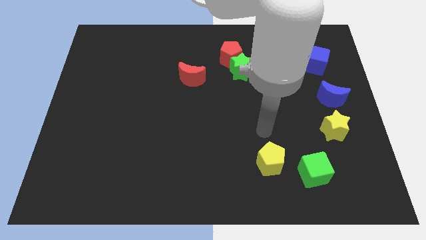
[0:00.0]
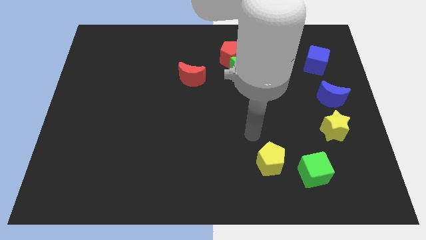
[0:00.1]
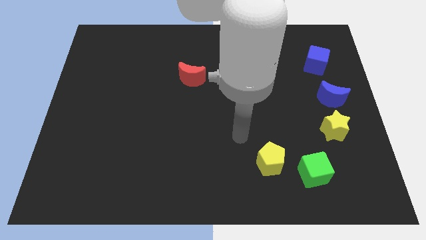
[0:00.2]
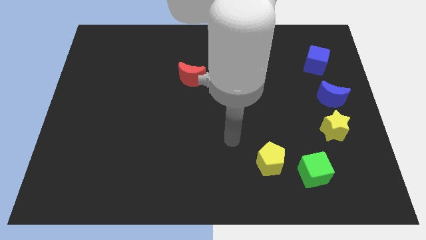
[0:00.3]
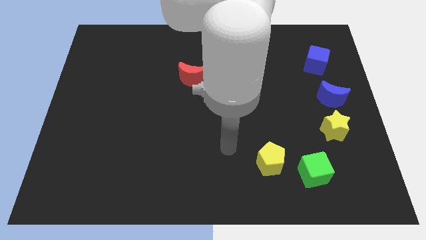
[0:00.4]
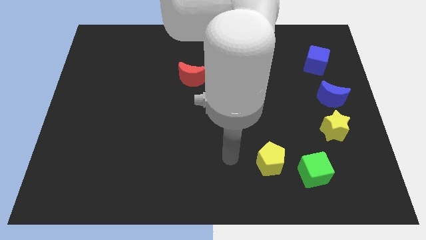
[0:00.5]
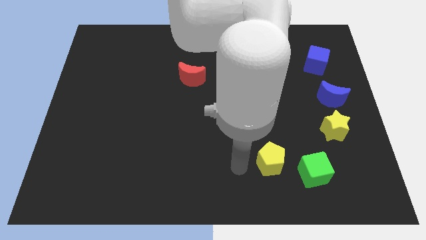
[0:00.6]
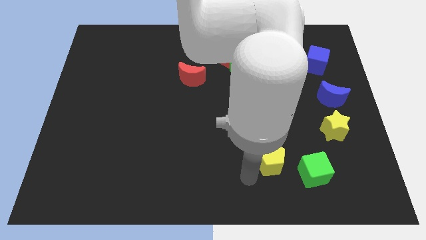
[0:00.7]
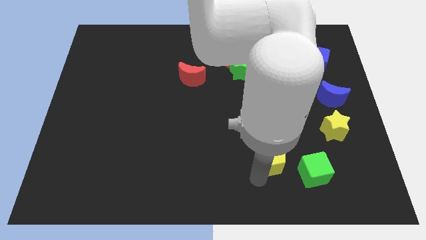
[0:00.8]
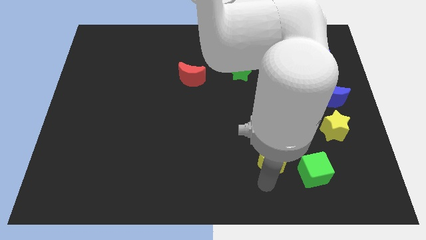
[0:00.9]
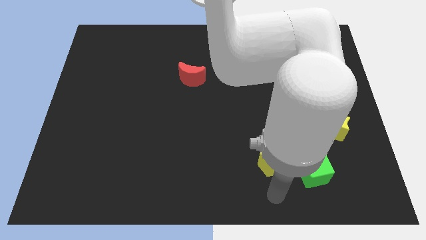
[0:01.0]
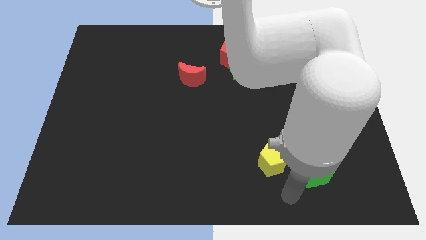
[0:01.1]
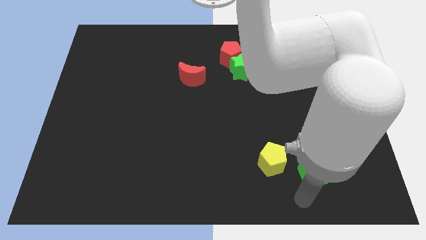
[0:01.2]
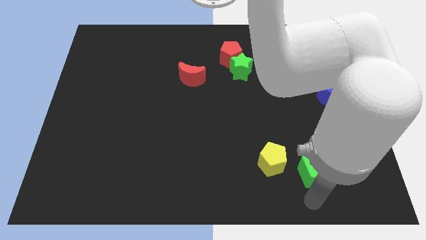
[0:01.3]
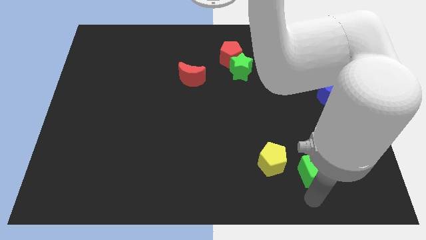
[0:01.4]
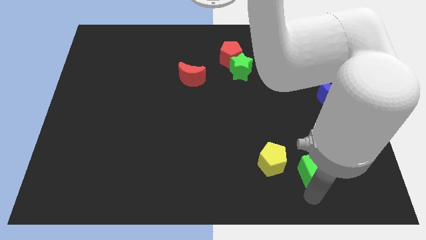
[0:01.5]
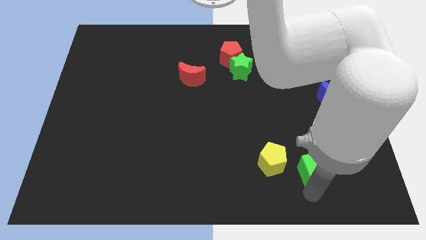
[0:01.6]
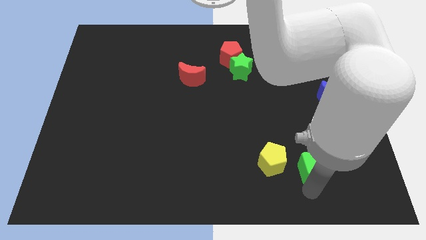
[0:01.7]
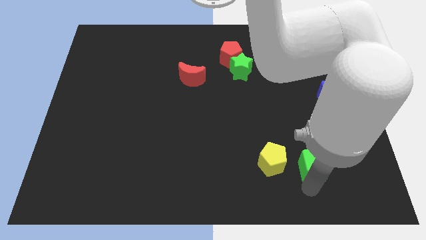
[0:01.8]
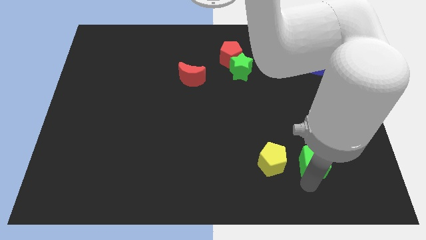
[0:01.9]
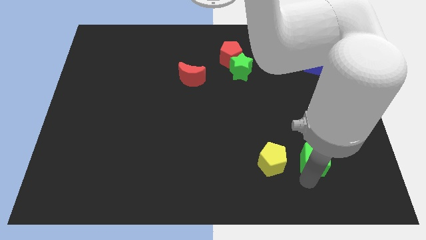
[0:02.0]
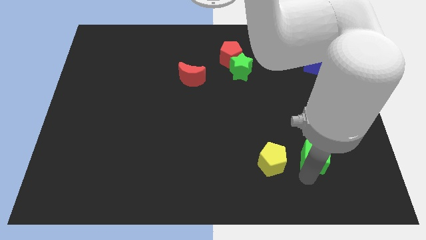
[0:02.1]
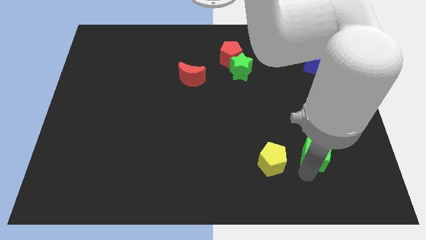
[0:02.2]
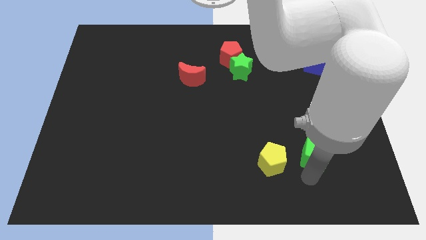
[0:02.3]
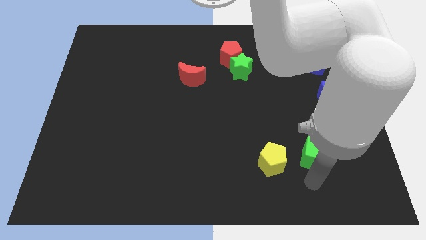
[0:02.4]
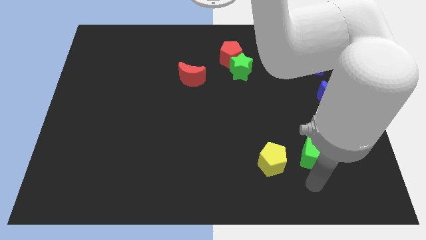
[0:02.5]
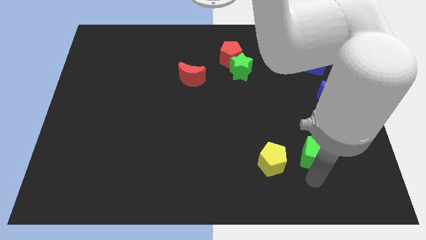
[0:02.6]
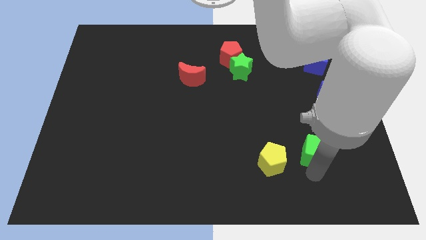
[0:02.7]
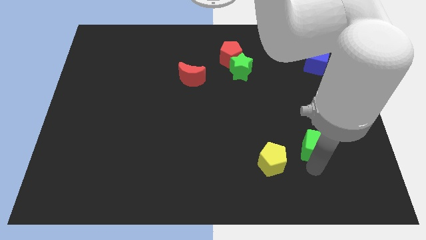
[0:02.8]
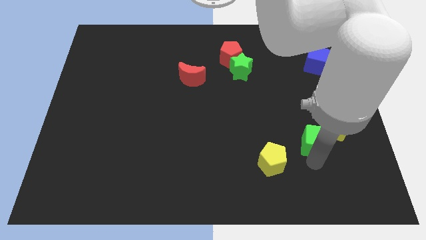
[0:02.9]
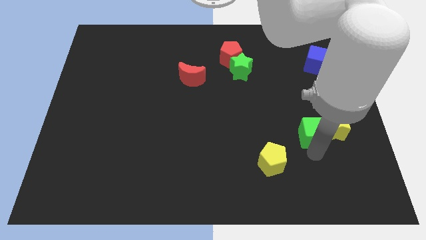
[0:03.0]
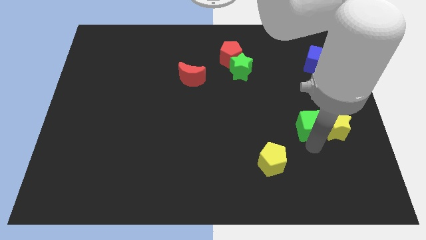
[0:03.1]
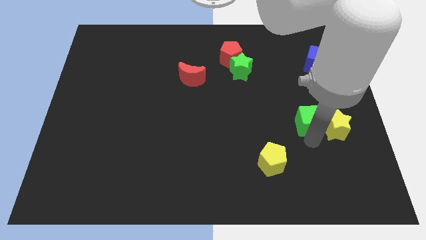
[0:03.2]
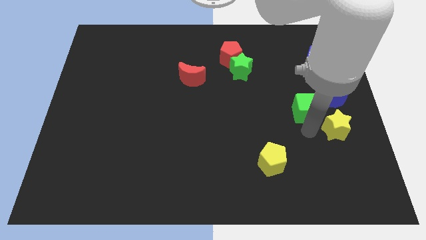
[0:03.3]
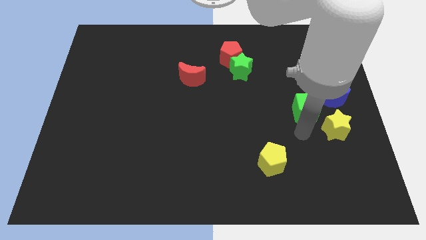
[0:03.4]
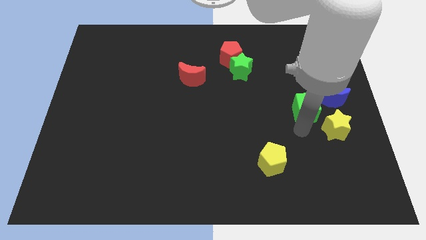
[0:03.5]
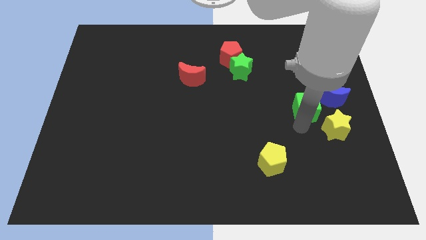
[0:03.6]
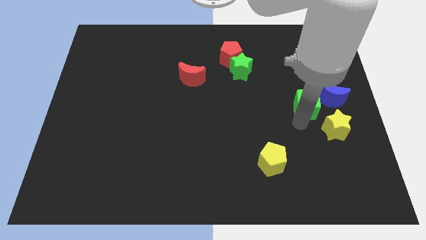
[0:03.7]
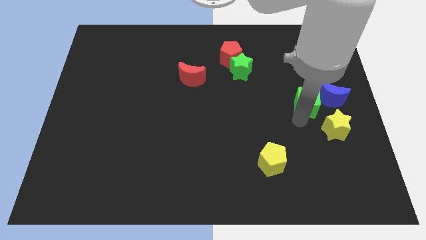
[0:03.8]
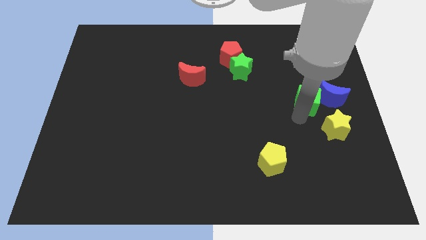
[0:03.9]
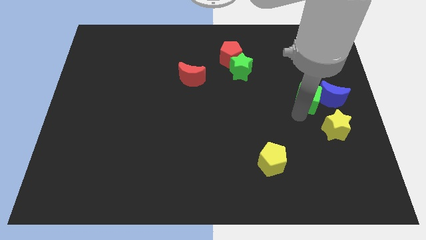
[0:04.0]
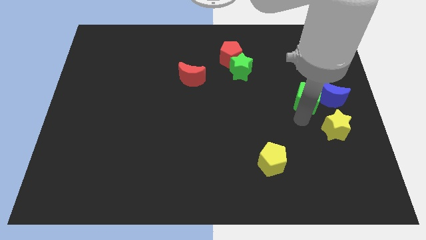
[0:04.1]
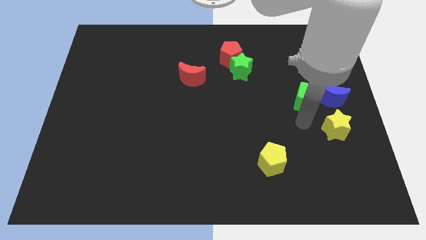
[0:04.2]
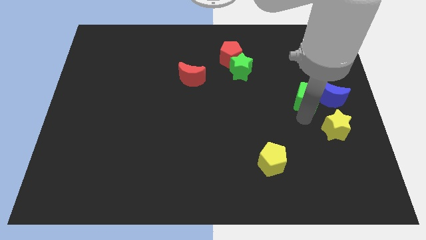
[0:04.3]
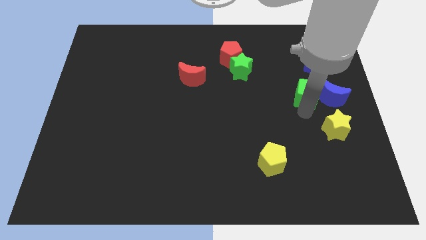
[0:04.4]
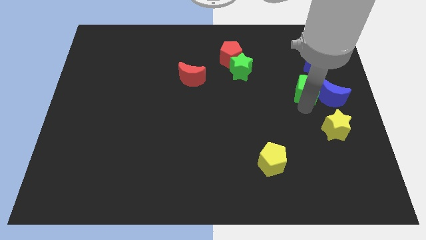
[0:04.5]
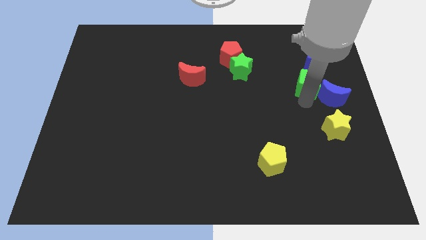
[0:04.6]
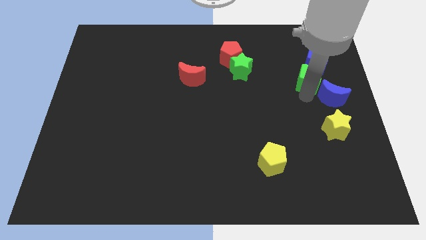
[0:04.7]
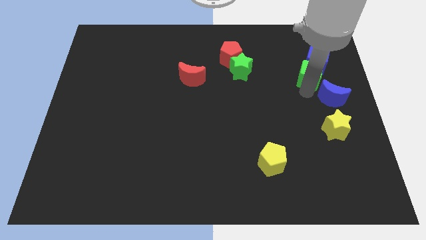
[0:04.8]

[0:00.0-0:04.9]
slide the green cube towards the blue cube

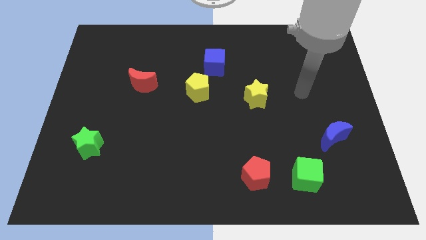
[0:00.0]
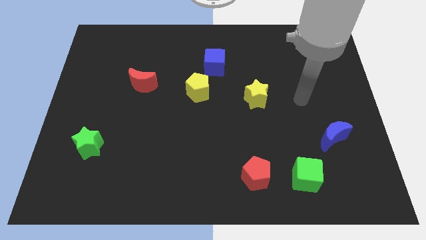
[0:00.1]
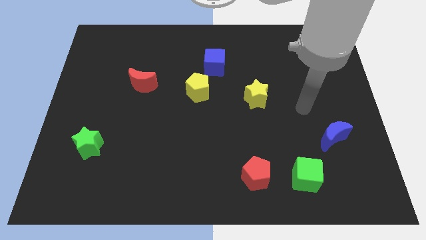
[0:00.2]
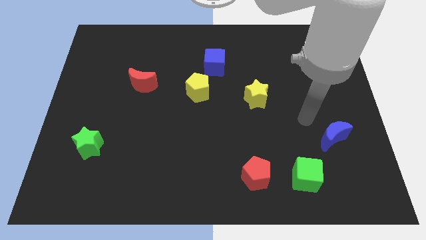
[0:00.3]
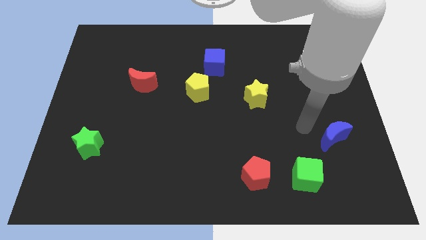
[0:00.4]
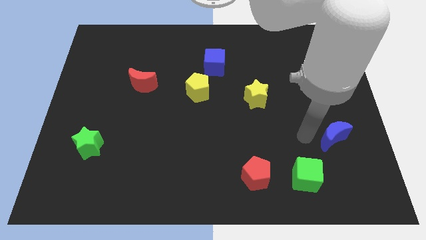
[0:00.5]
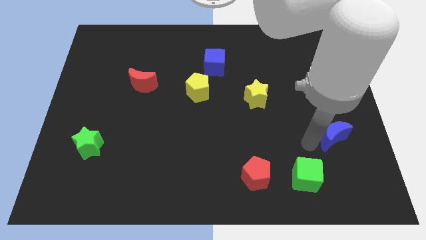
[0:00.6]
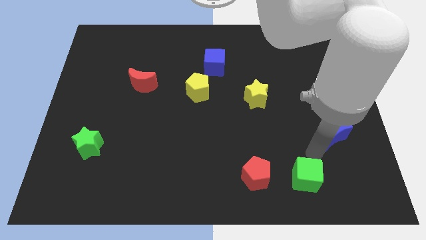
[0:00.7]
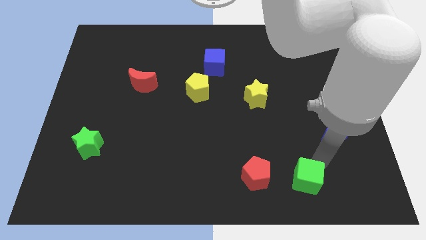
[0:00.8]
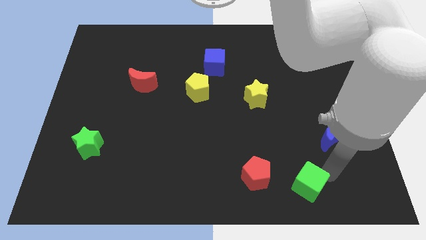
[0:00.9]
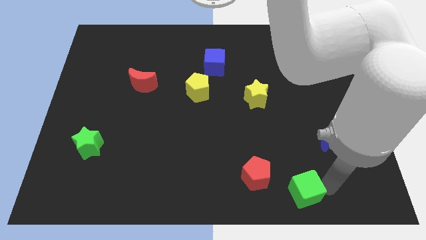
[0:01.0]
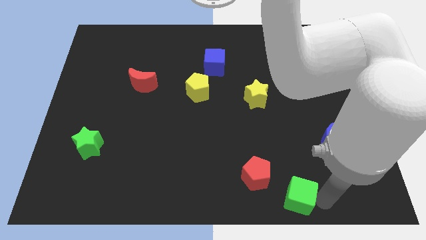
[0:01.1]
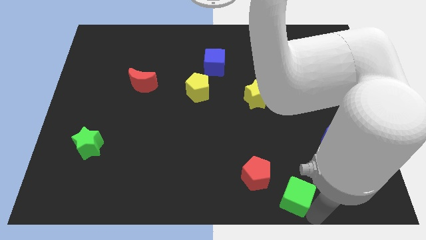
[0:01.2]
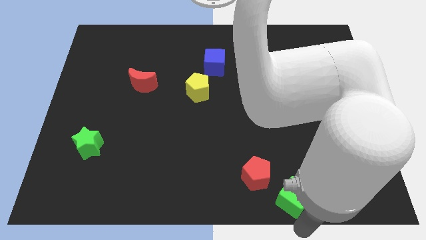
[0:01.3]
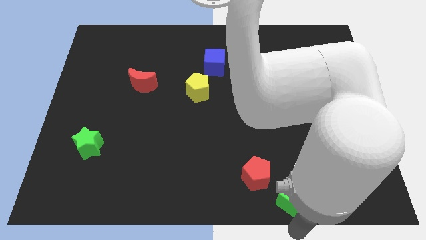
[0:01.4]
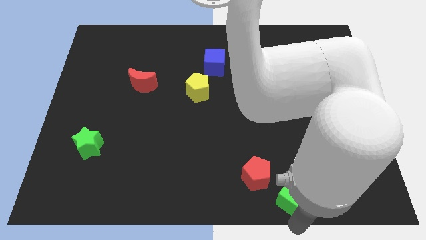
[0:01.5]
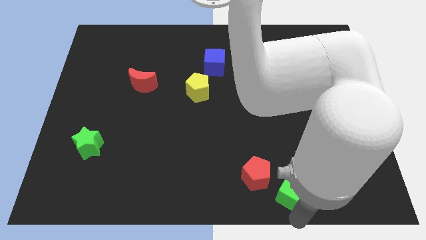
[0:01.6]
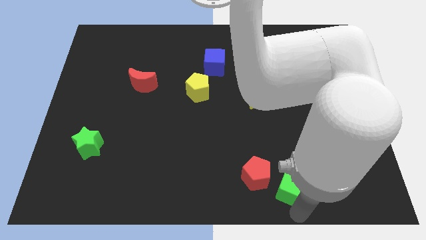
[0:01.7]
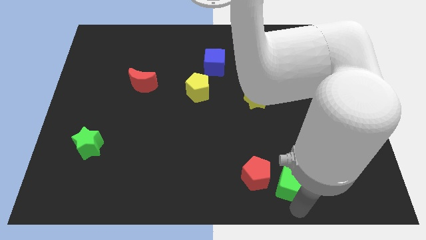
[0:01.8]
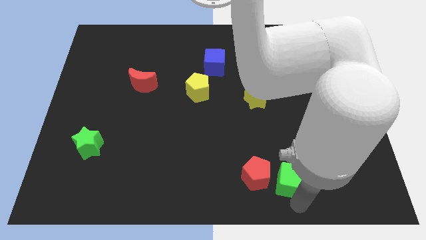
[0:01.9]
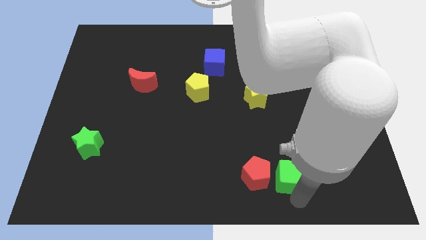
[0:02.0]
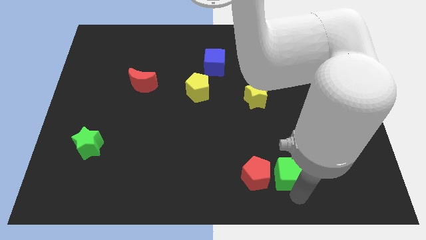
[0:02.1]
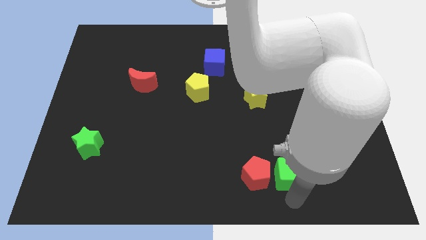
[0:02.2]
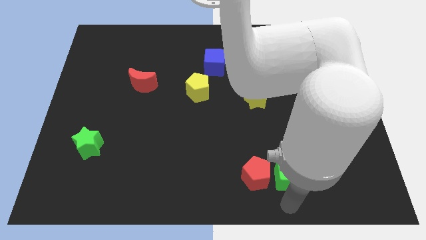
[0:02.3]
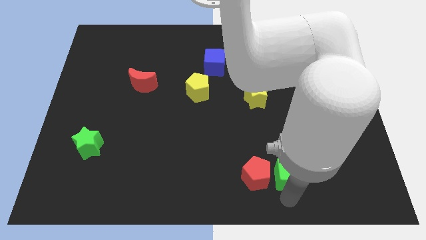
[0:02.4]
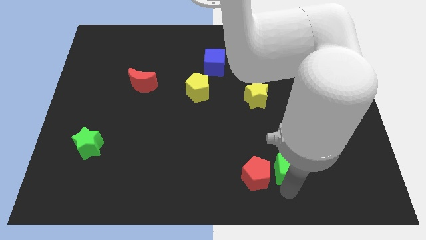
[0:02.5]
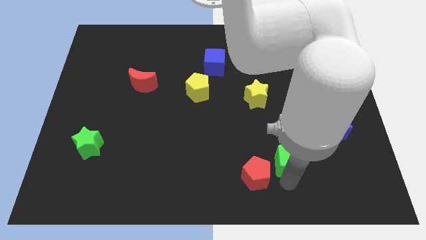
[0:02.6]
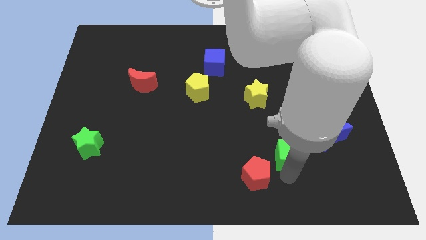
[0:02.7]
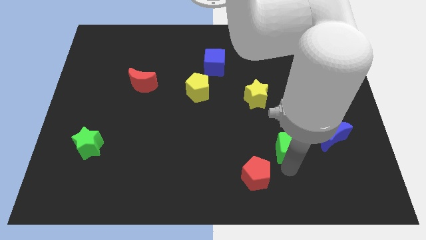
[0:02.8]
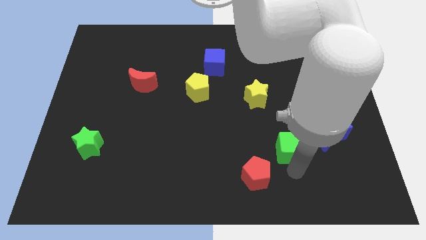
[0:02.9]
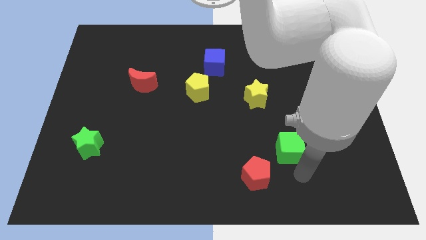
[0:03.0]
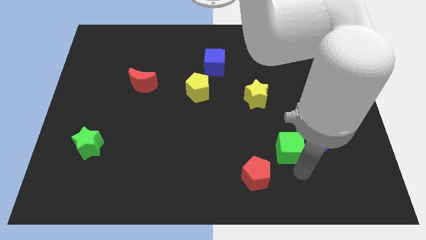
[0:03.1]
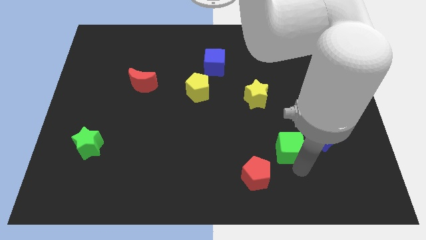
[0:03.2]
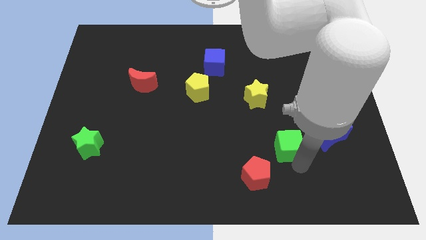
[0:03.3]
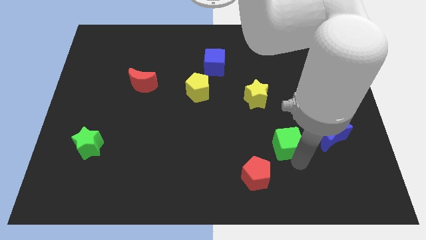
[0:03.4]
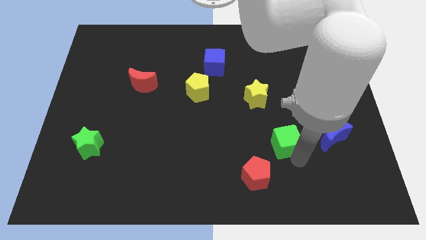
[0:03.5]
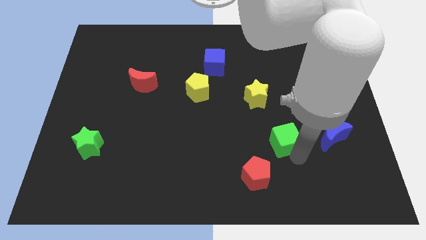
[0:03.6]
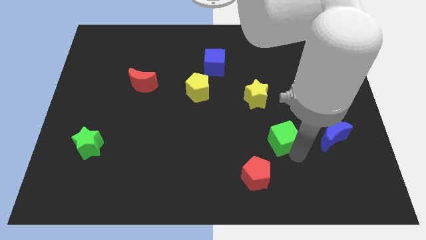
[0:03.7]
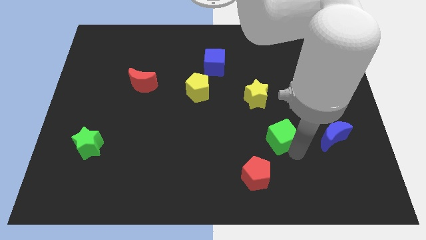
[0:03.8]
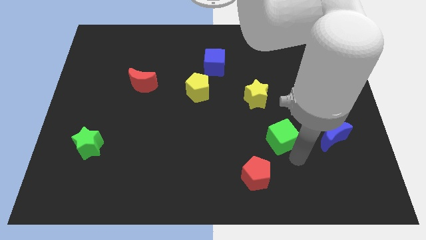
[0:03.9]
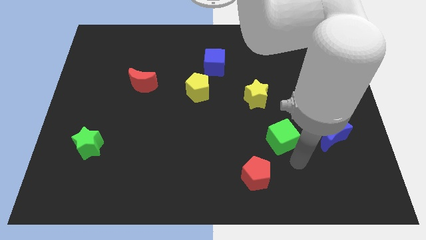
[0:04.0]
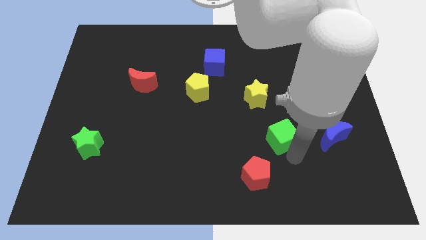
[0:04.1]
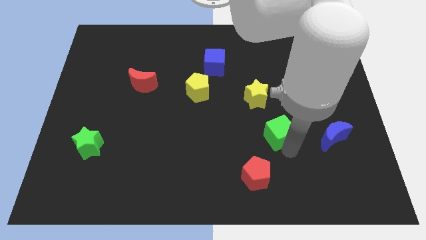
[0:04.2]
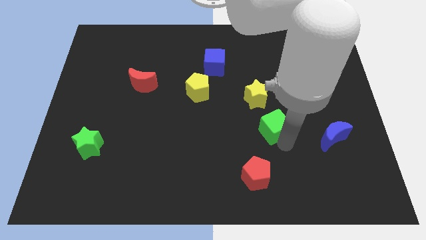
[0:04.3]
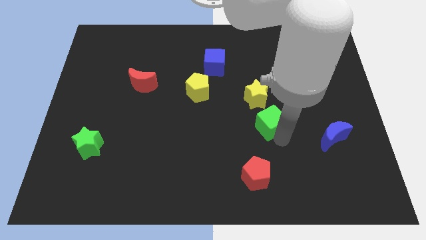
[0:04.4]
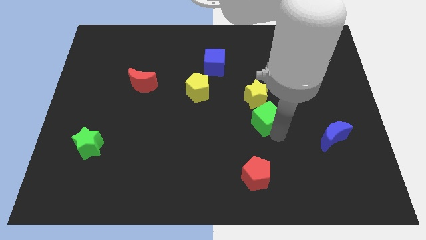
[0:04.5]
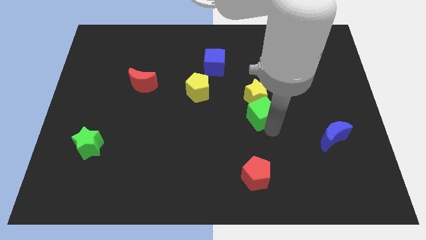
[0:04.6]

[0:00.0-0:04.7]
put the green cube to the yellow star
